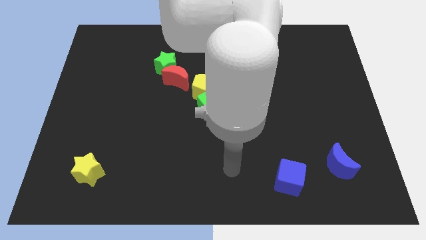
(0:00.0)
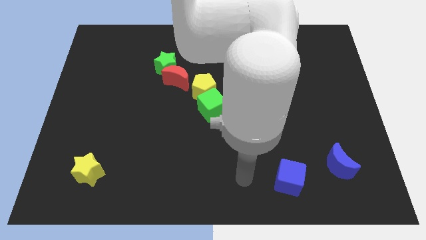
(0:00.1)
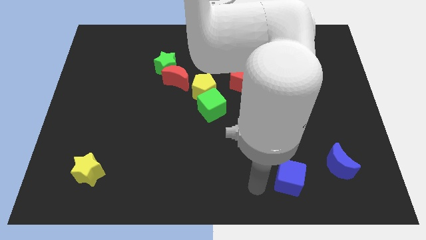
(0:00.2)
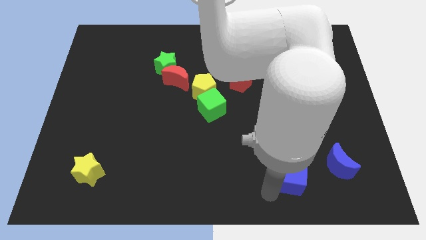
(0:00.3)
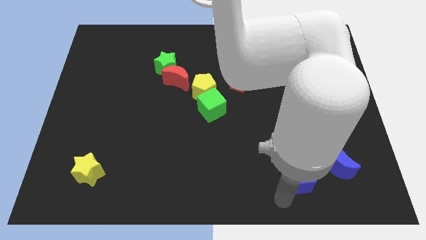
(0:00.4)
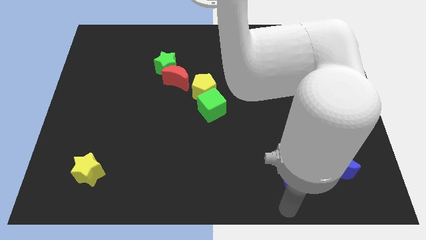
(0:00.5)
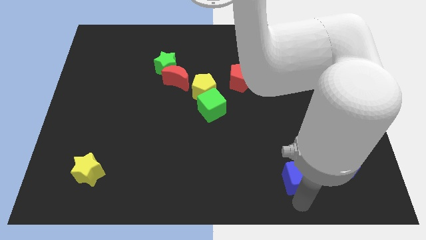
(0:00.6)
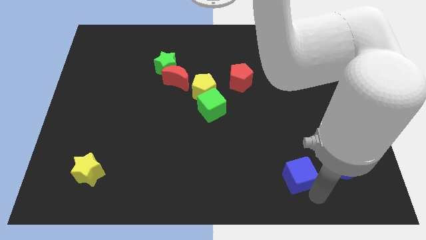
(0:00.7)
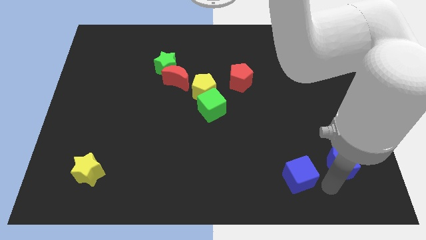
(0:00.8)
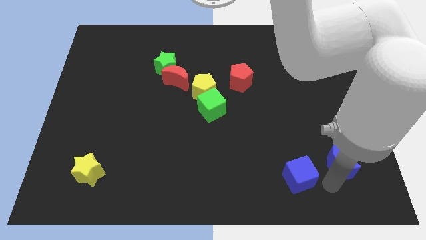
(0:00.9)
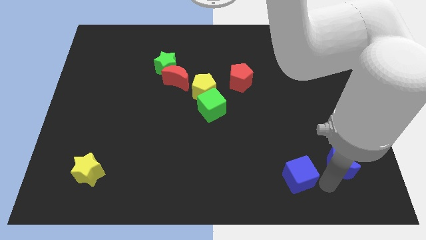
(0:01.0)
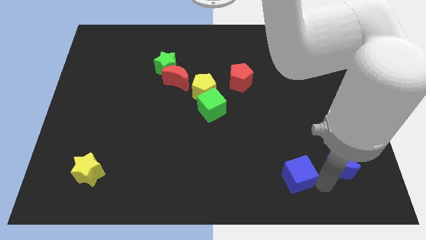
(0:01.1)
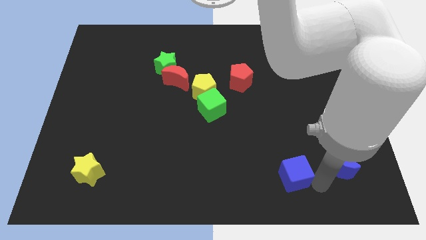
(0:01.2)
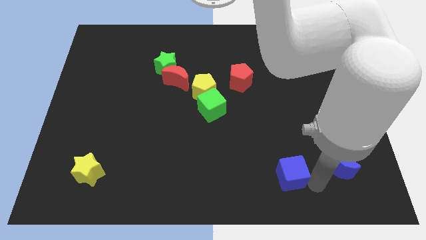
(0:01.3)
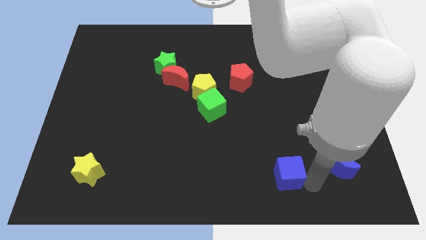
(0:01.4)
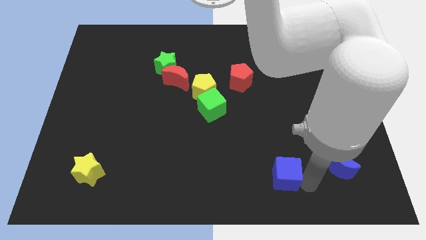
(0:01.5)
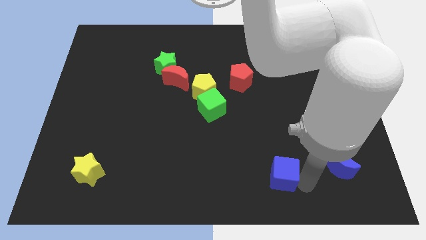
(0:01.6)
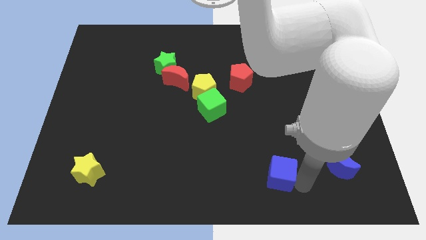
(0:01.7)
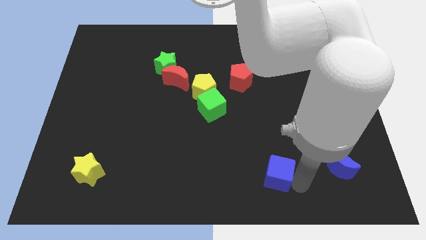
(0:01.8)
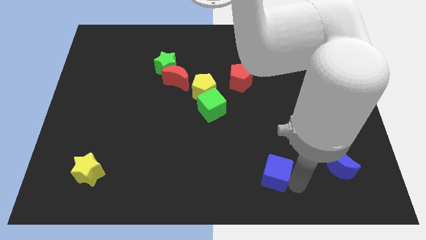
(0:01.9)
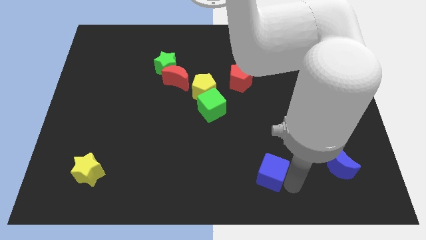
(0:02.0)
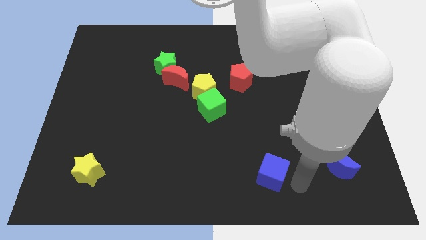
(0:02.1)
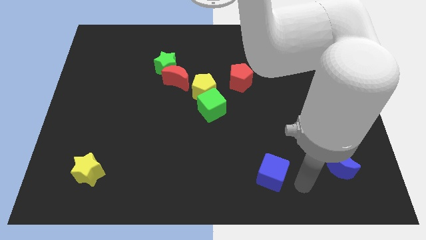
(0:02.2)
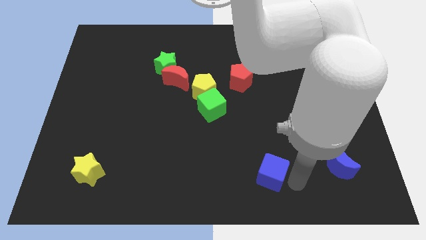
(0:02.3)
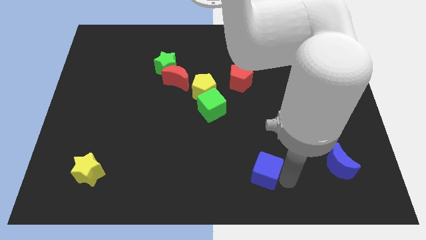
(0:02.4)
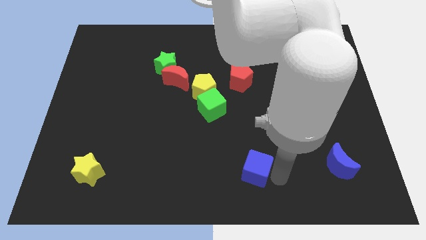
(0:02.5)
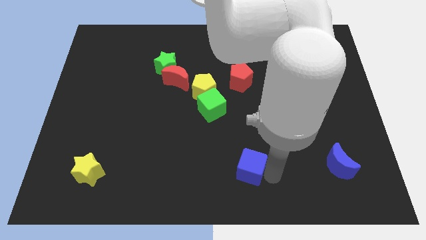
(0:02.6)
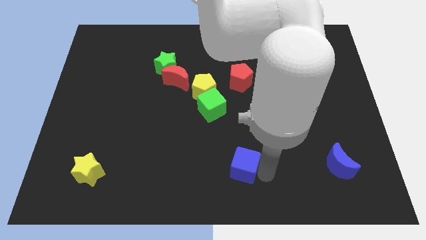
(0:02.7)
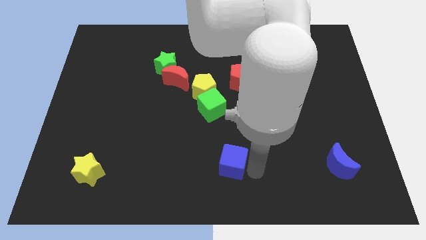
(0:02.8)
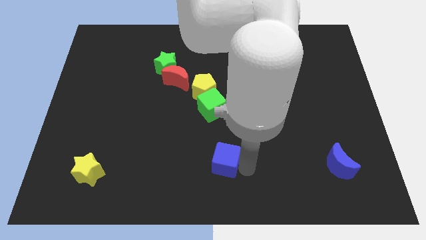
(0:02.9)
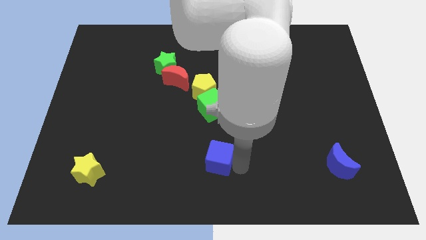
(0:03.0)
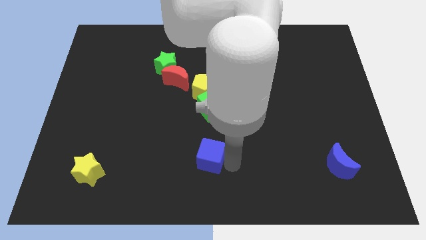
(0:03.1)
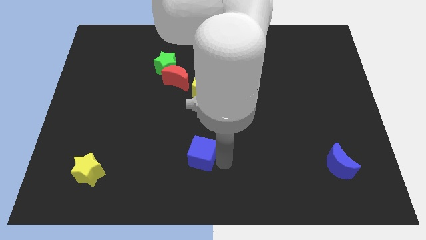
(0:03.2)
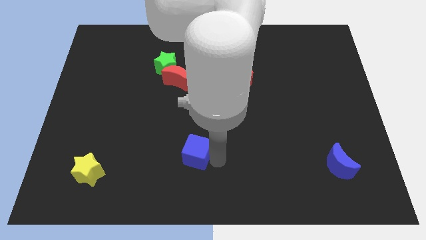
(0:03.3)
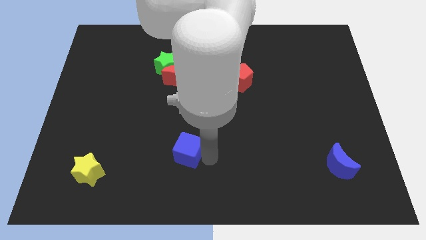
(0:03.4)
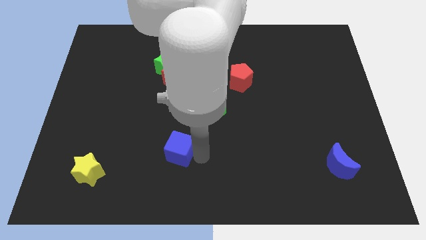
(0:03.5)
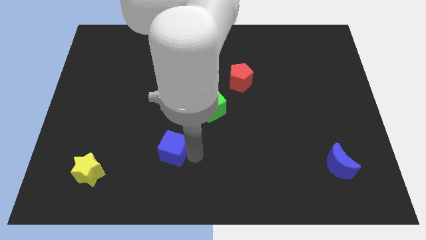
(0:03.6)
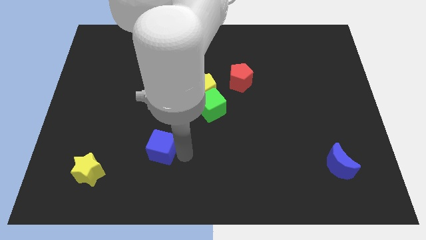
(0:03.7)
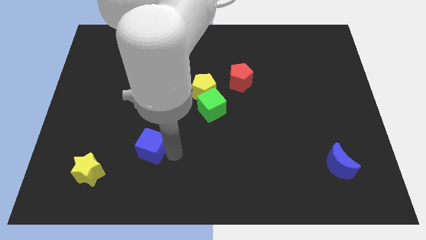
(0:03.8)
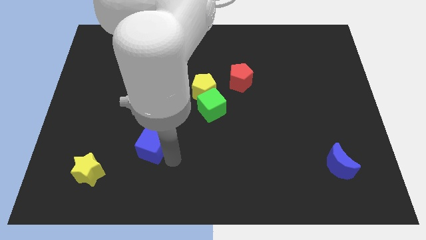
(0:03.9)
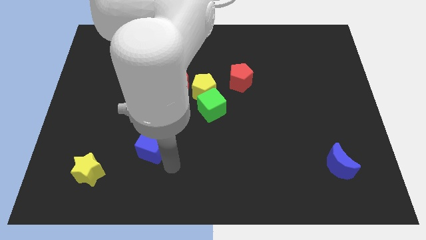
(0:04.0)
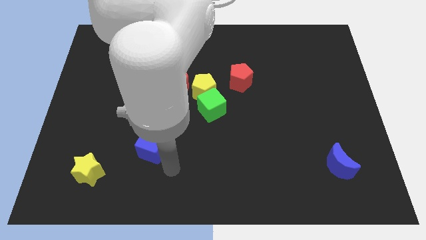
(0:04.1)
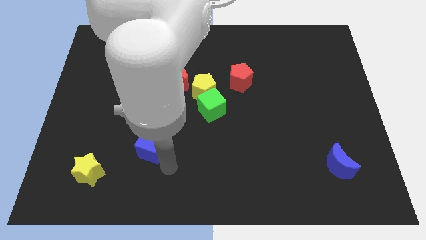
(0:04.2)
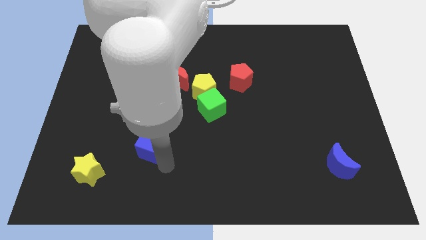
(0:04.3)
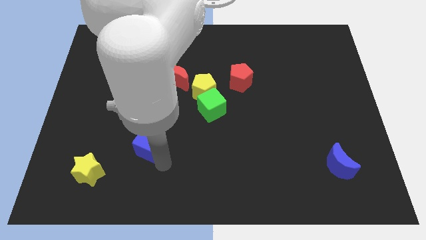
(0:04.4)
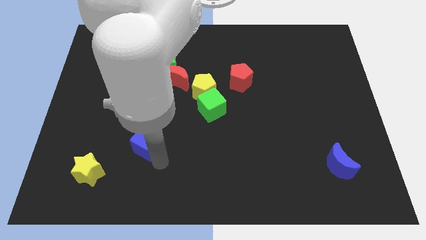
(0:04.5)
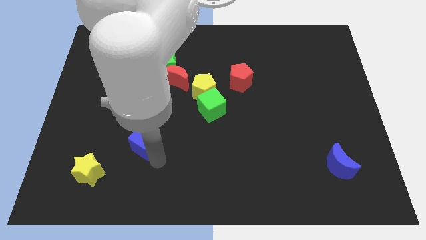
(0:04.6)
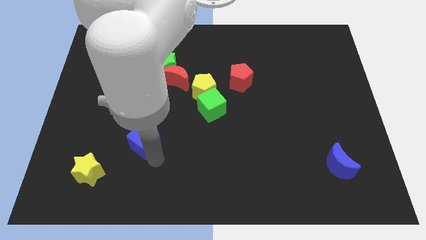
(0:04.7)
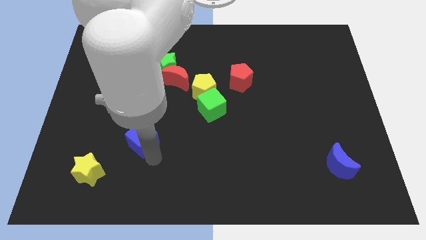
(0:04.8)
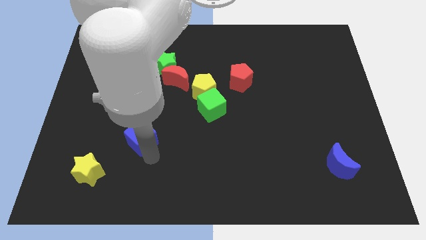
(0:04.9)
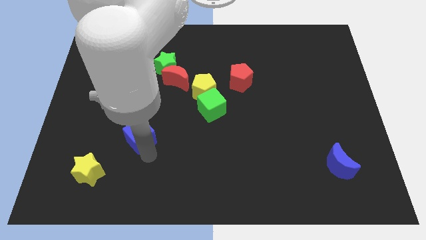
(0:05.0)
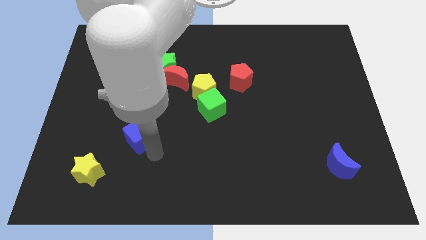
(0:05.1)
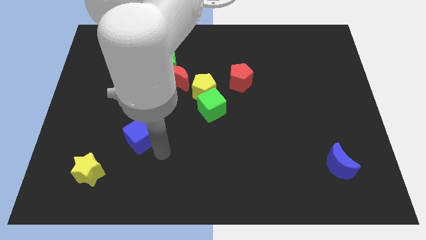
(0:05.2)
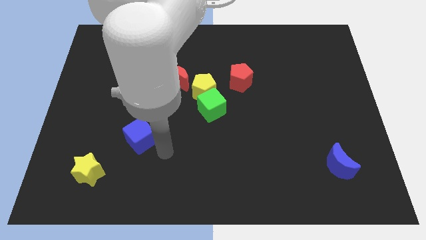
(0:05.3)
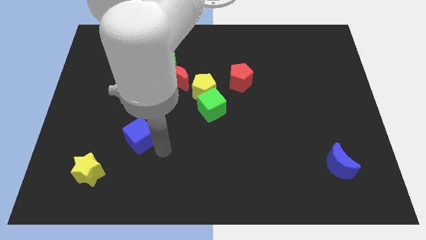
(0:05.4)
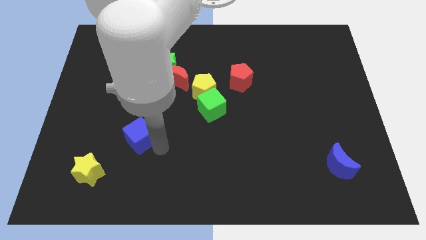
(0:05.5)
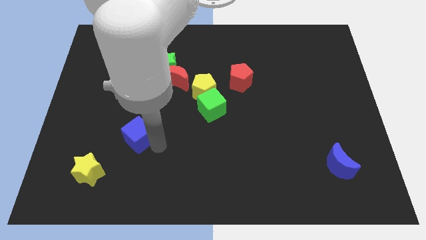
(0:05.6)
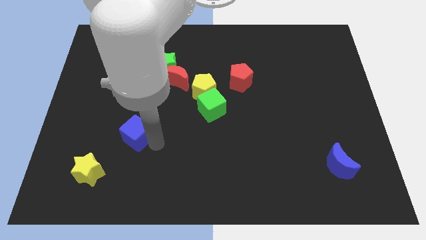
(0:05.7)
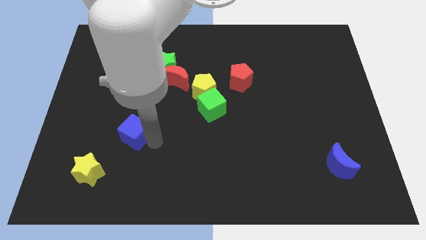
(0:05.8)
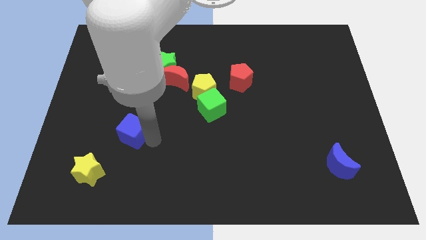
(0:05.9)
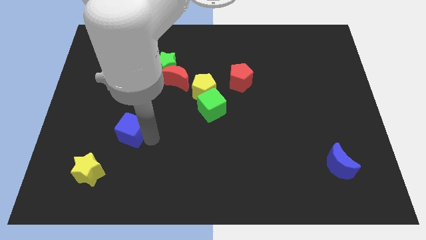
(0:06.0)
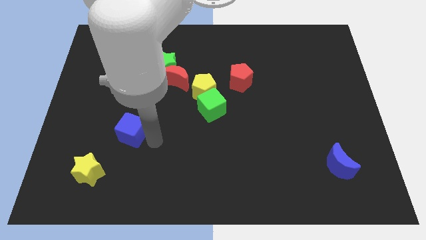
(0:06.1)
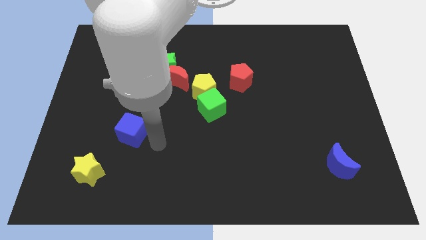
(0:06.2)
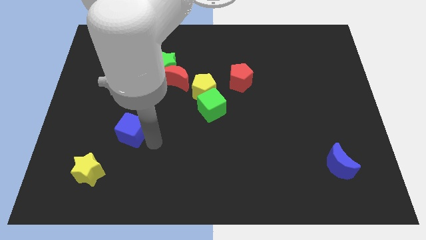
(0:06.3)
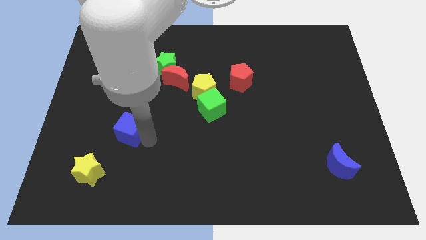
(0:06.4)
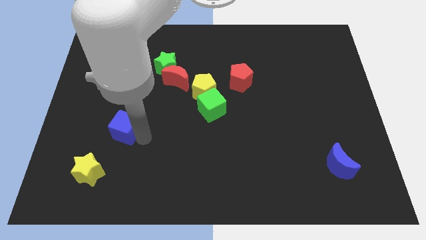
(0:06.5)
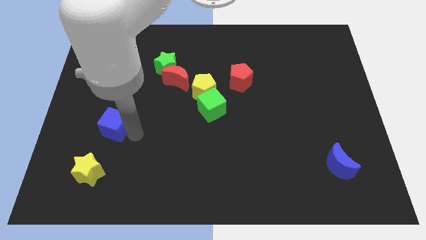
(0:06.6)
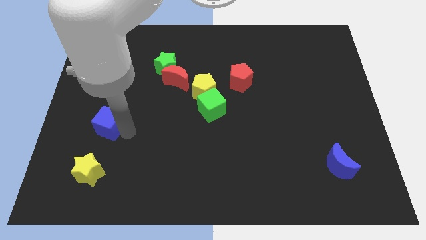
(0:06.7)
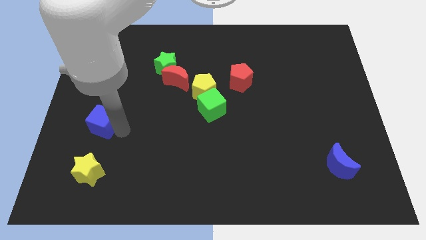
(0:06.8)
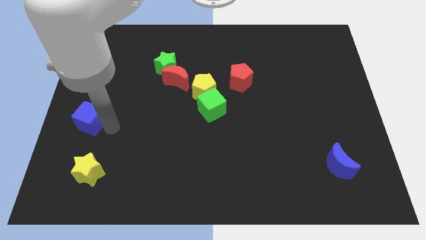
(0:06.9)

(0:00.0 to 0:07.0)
put the blue cube to the left side
